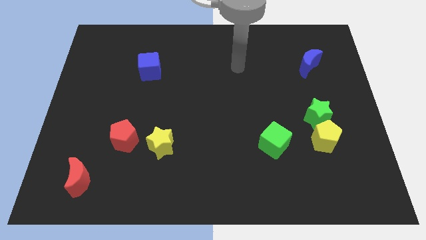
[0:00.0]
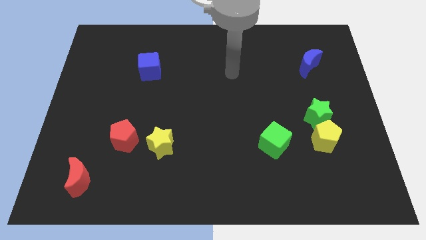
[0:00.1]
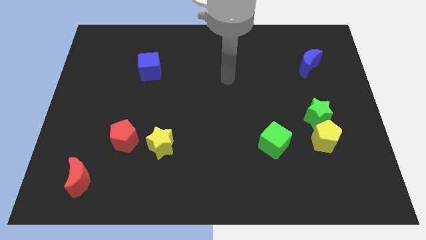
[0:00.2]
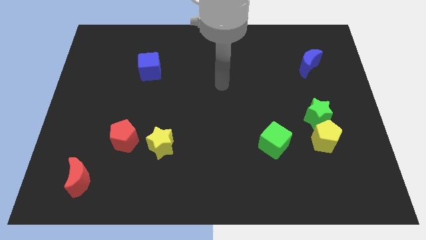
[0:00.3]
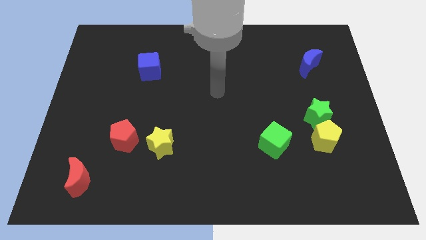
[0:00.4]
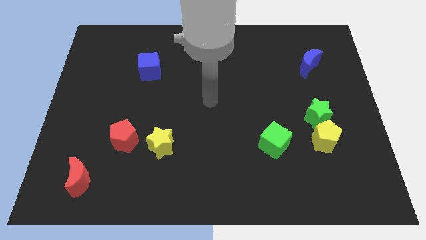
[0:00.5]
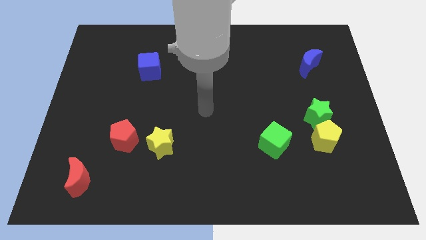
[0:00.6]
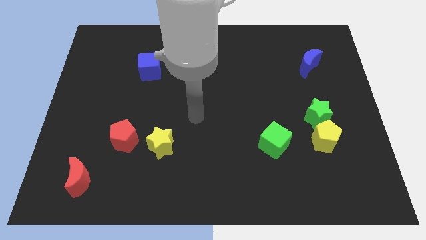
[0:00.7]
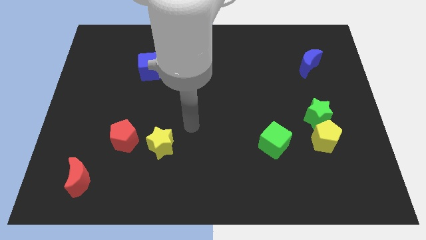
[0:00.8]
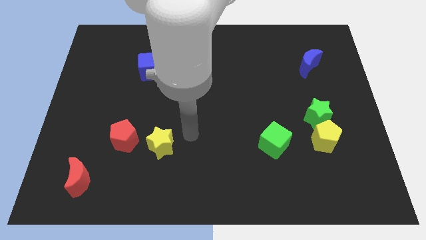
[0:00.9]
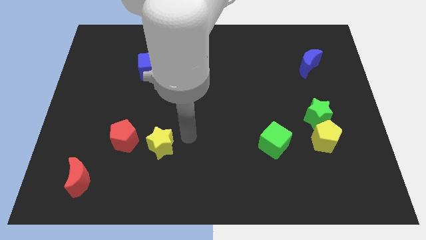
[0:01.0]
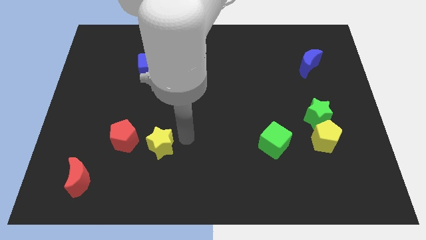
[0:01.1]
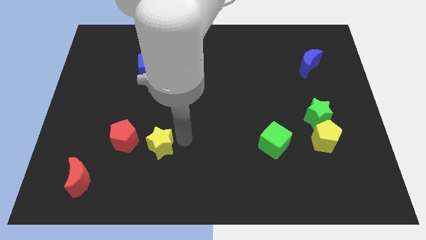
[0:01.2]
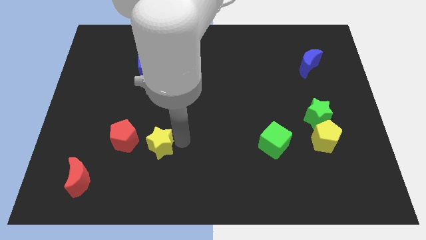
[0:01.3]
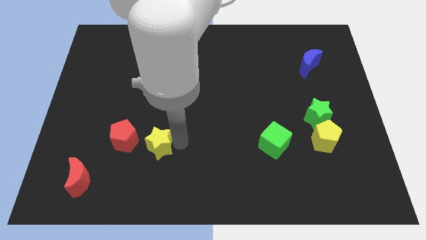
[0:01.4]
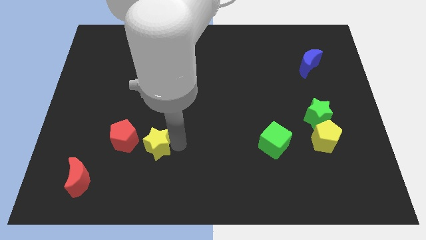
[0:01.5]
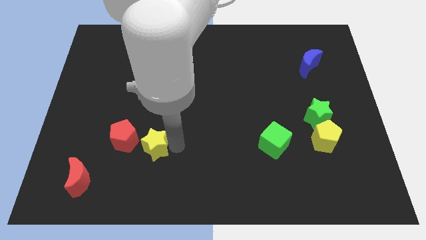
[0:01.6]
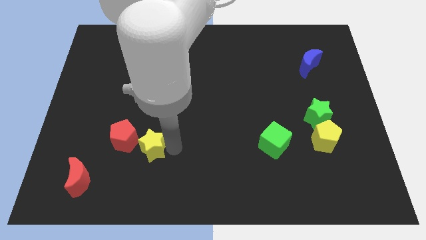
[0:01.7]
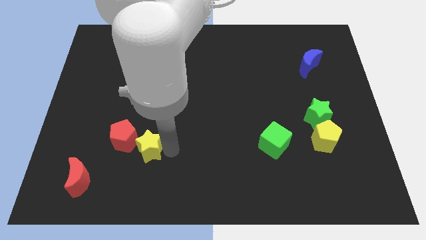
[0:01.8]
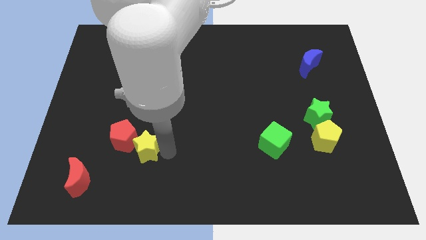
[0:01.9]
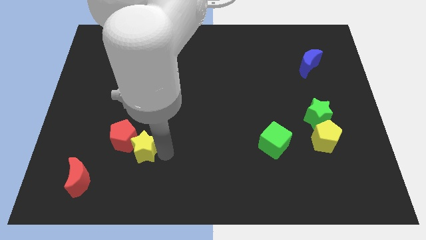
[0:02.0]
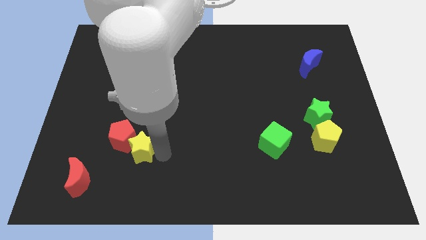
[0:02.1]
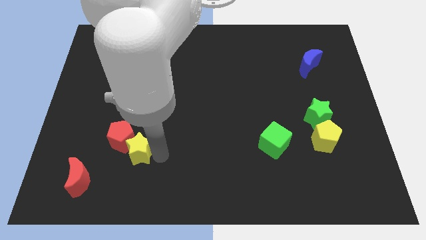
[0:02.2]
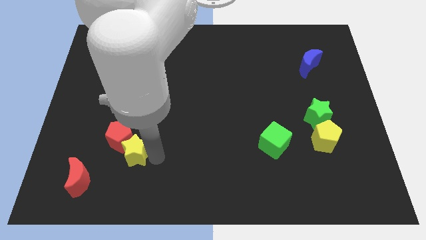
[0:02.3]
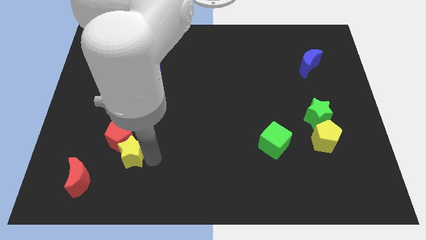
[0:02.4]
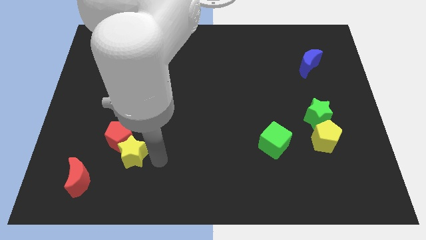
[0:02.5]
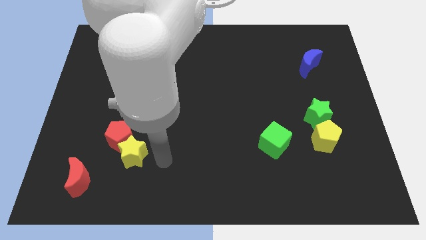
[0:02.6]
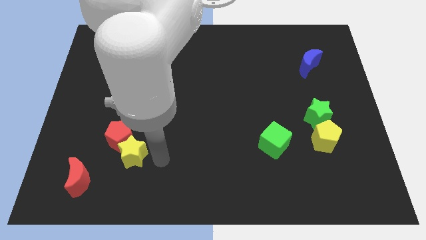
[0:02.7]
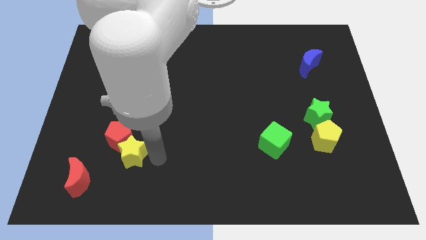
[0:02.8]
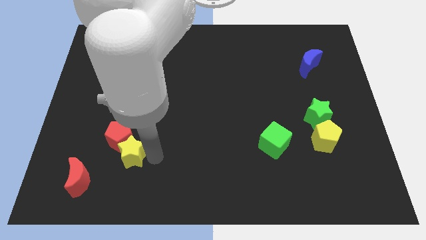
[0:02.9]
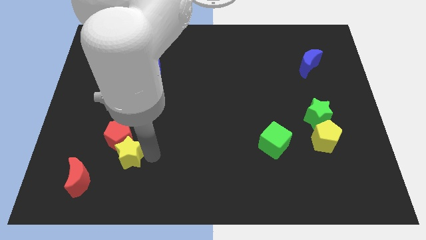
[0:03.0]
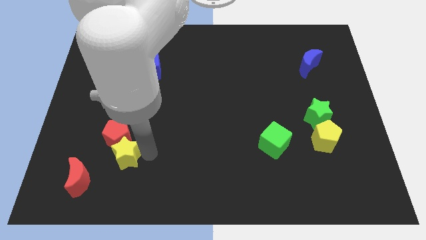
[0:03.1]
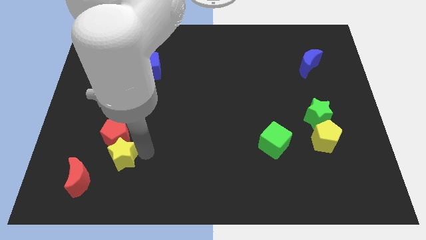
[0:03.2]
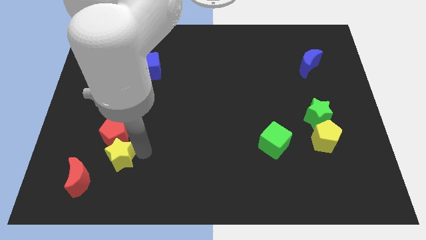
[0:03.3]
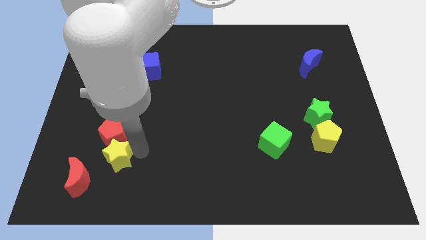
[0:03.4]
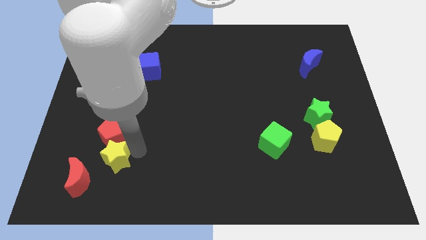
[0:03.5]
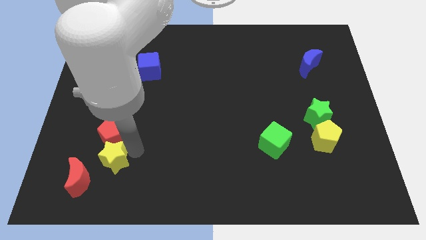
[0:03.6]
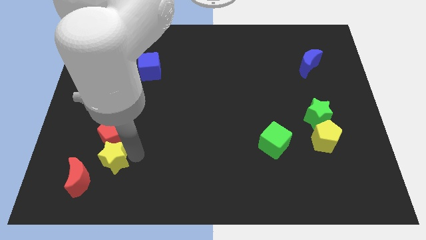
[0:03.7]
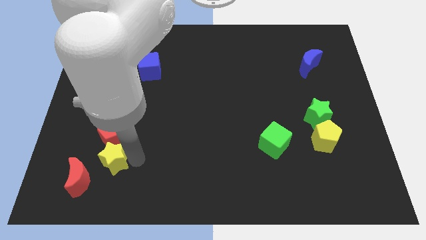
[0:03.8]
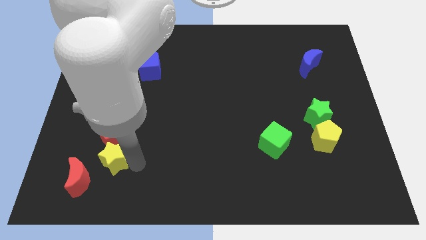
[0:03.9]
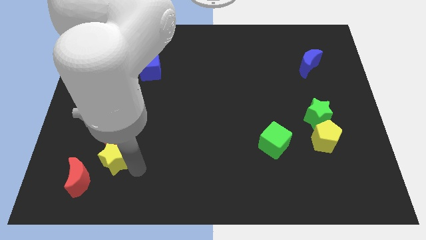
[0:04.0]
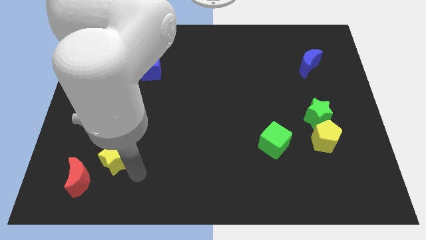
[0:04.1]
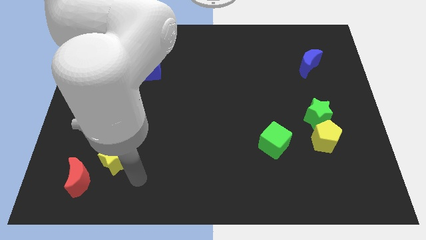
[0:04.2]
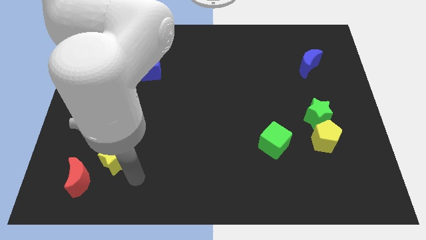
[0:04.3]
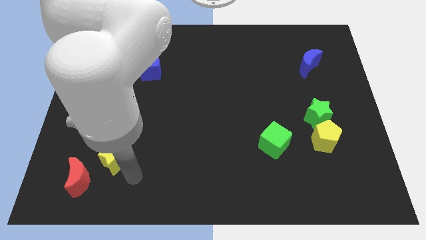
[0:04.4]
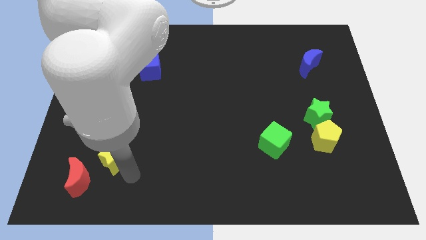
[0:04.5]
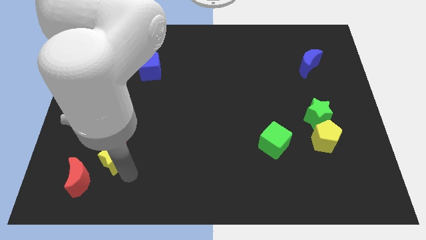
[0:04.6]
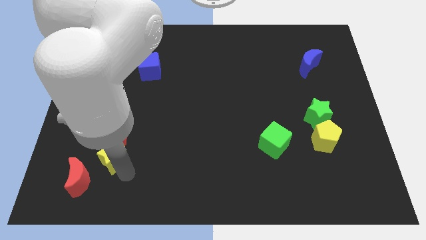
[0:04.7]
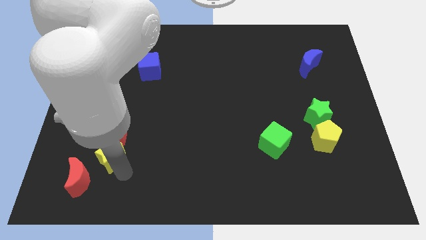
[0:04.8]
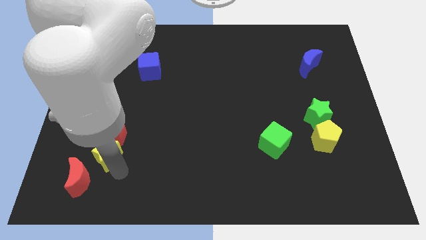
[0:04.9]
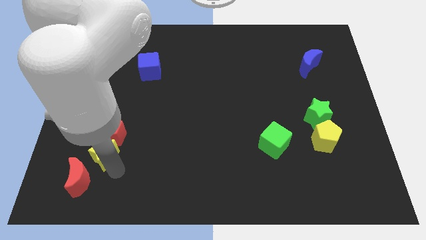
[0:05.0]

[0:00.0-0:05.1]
put the yellow star to the top of the red moon

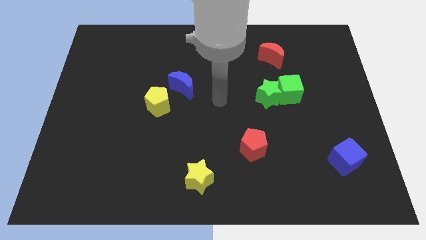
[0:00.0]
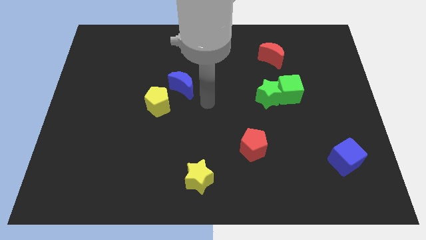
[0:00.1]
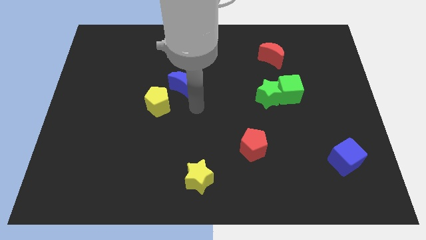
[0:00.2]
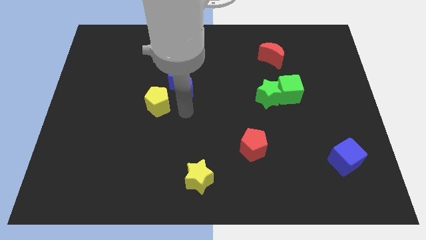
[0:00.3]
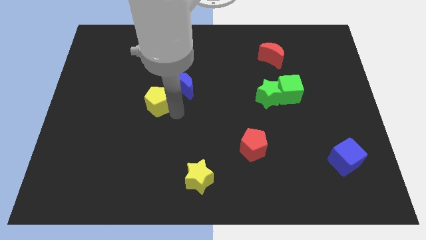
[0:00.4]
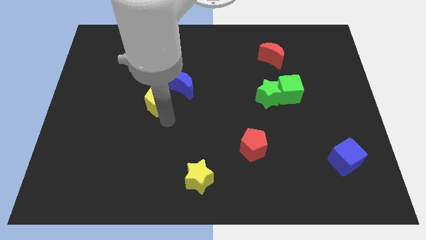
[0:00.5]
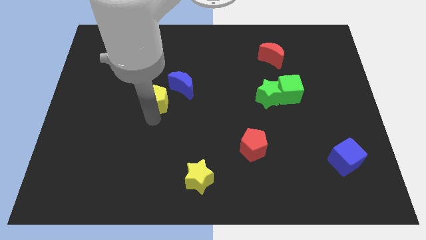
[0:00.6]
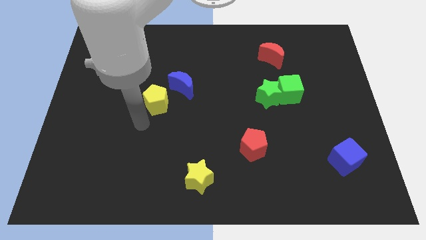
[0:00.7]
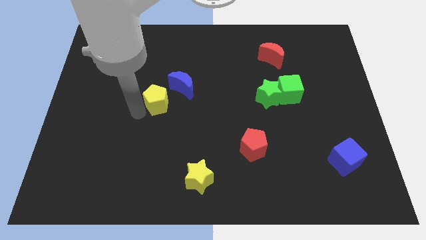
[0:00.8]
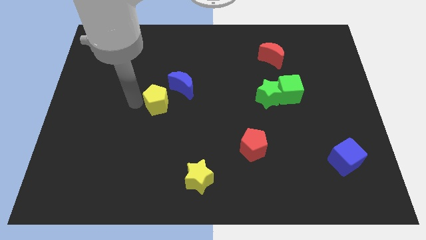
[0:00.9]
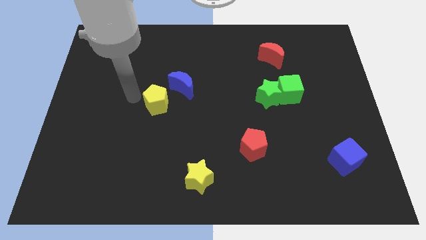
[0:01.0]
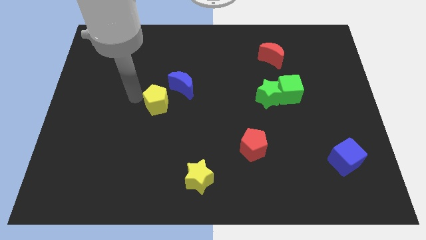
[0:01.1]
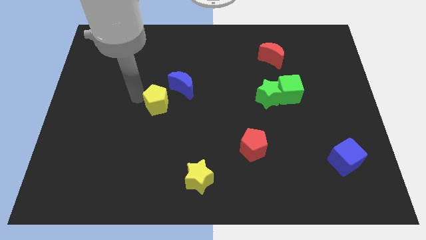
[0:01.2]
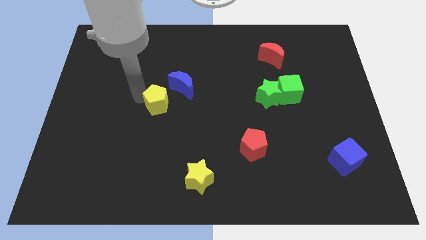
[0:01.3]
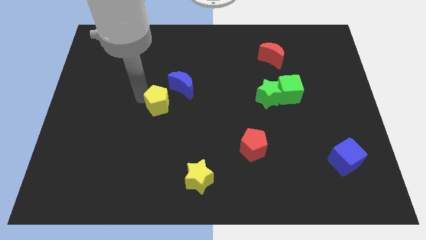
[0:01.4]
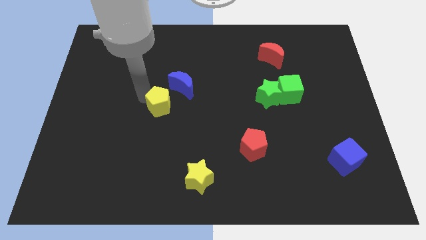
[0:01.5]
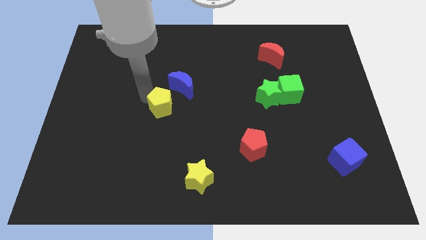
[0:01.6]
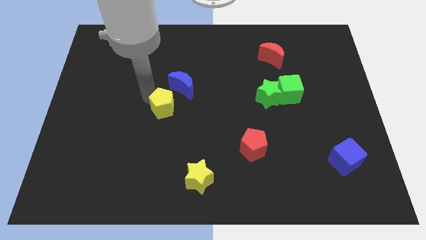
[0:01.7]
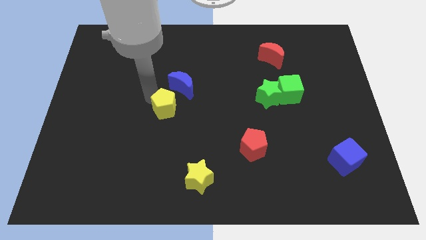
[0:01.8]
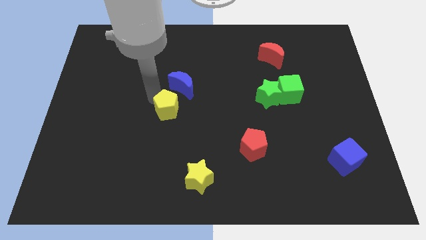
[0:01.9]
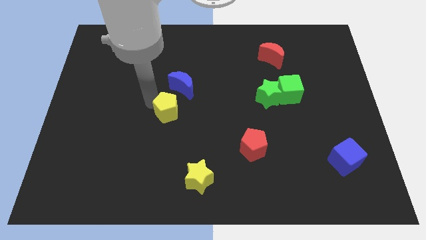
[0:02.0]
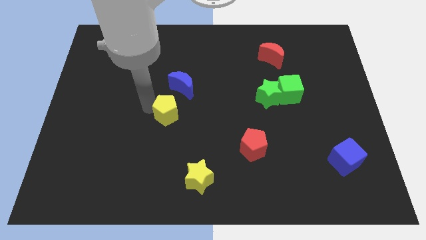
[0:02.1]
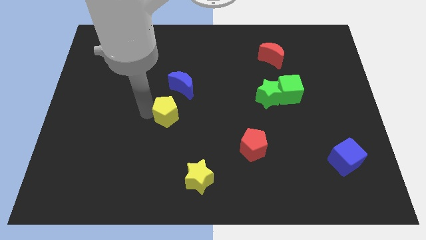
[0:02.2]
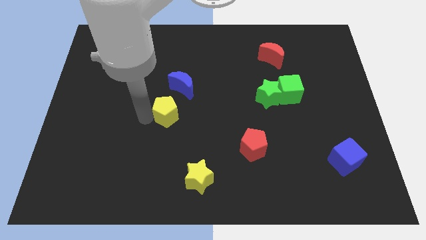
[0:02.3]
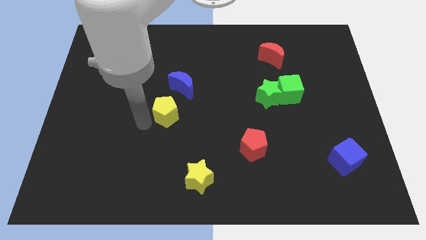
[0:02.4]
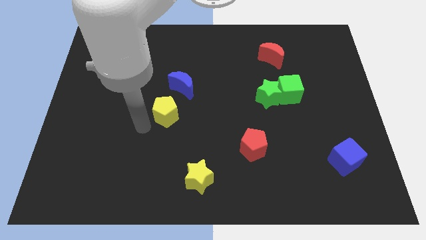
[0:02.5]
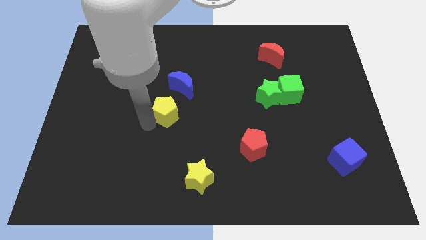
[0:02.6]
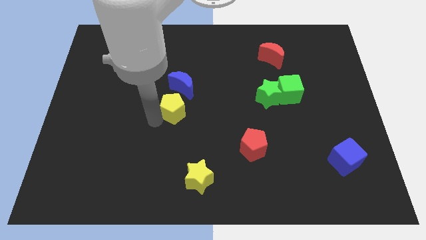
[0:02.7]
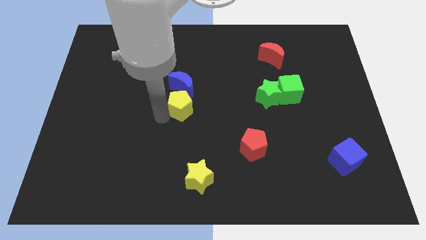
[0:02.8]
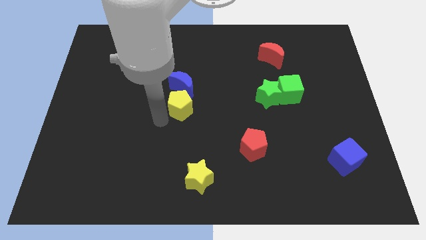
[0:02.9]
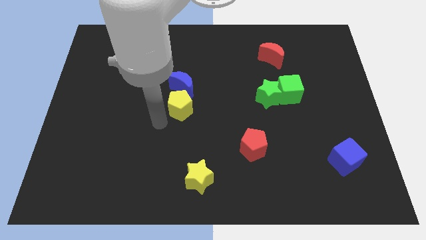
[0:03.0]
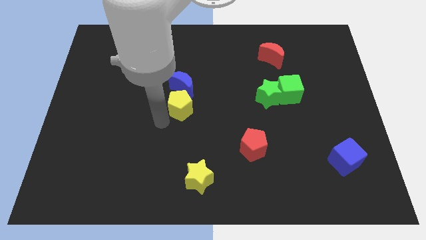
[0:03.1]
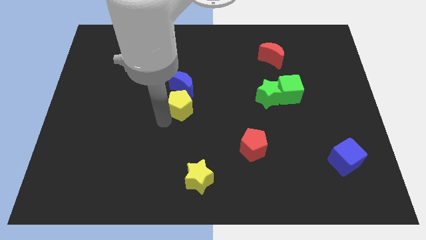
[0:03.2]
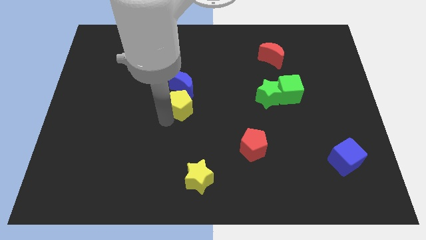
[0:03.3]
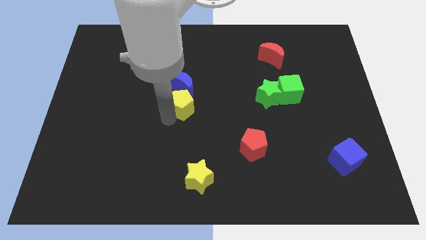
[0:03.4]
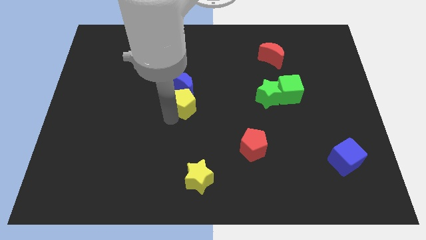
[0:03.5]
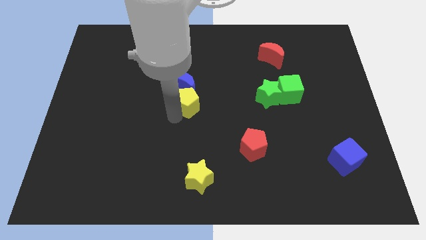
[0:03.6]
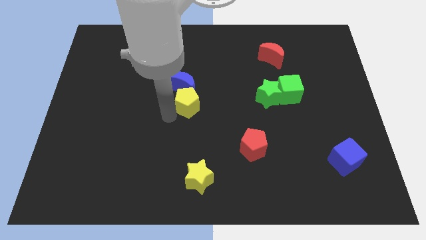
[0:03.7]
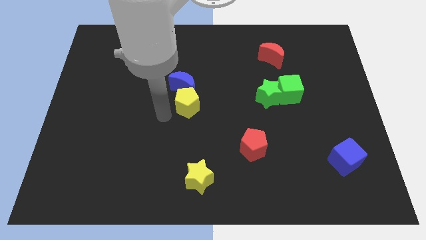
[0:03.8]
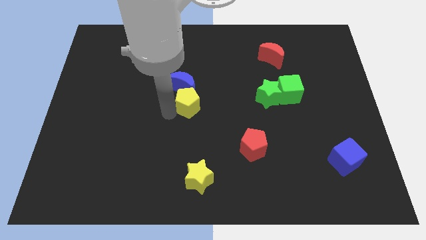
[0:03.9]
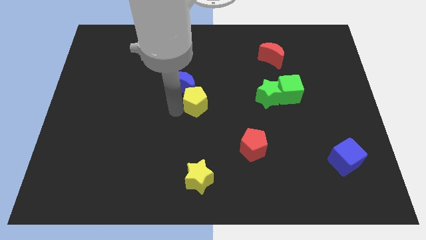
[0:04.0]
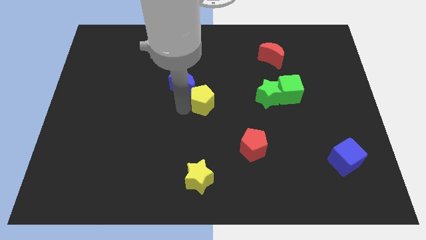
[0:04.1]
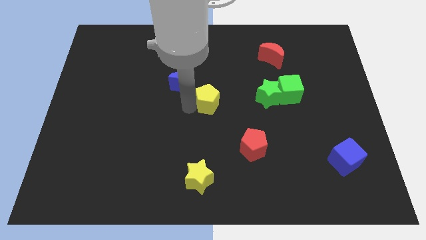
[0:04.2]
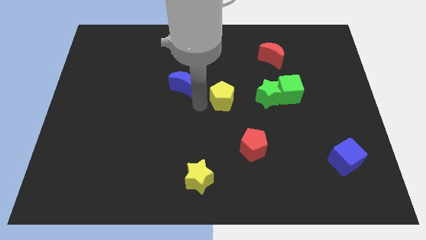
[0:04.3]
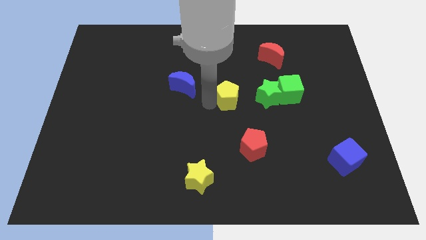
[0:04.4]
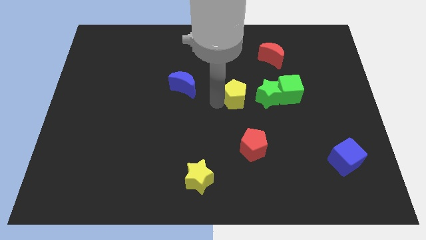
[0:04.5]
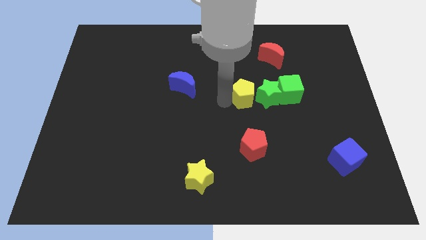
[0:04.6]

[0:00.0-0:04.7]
put the yellow pentagon to the top left side of the green star
